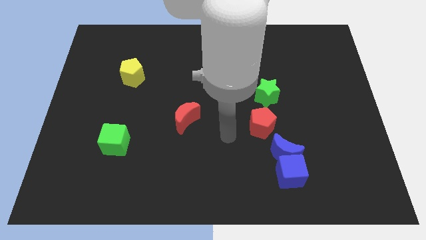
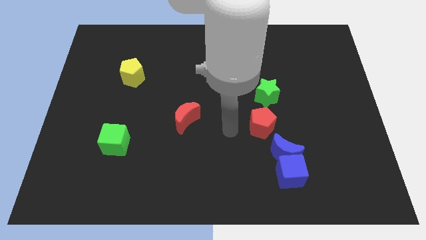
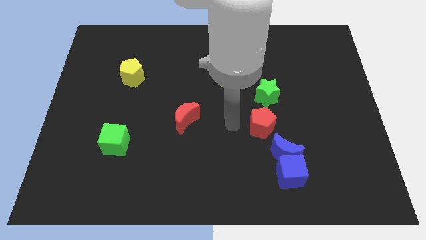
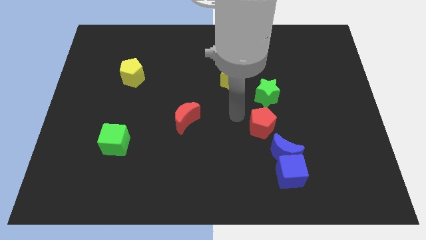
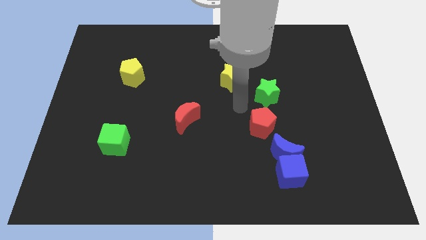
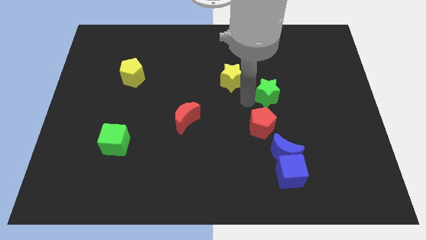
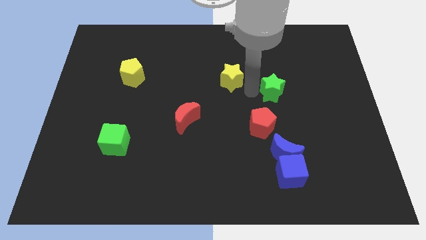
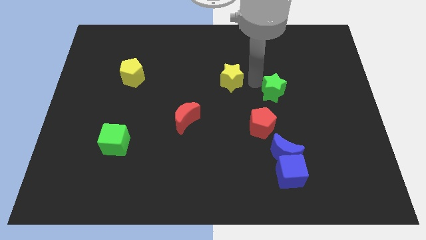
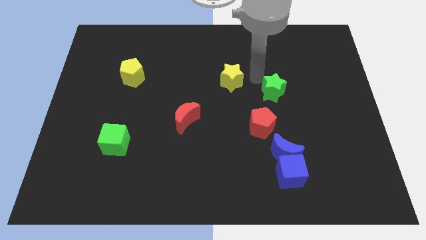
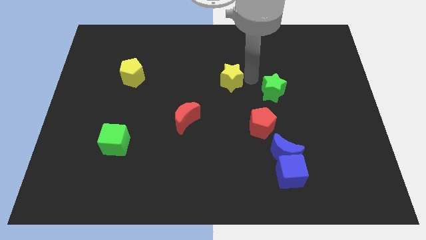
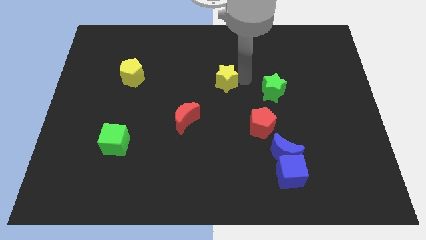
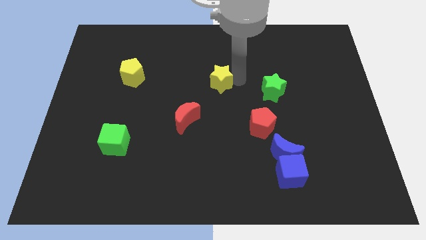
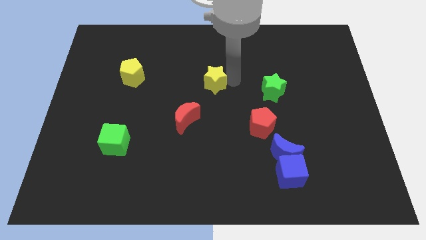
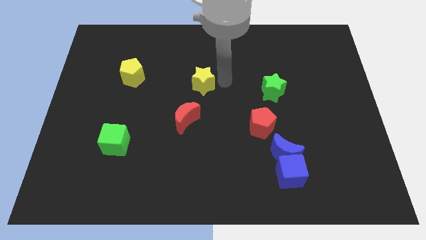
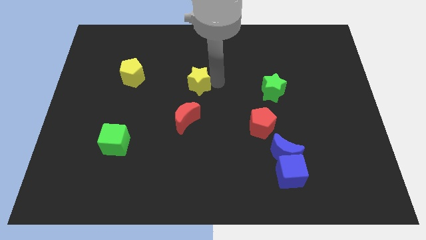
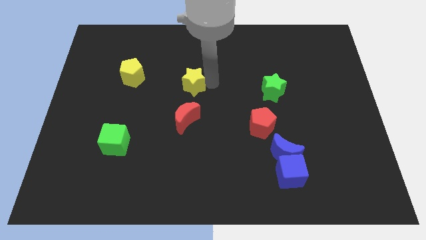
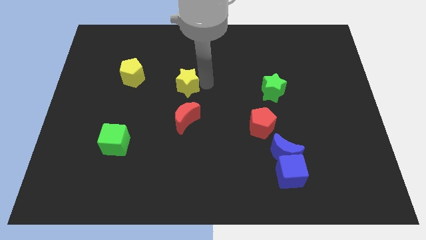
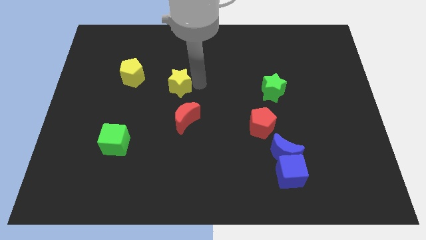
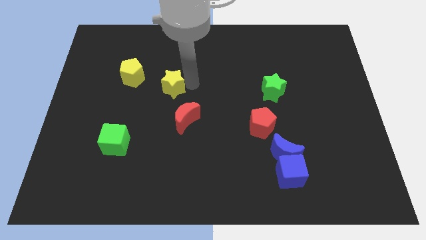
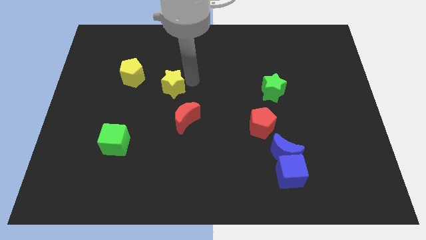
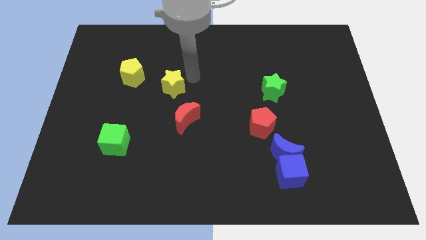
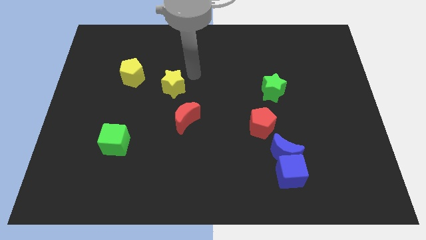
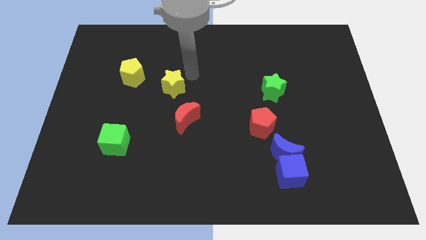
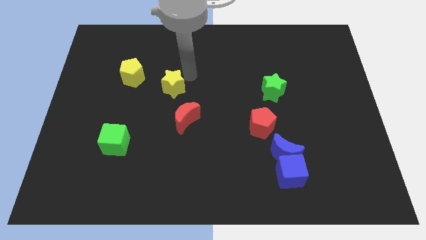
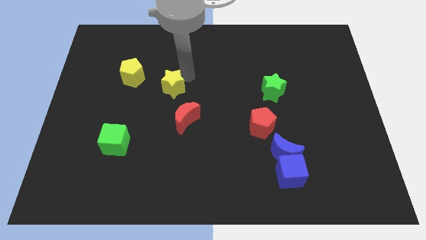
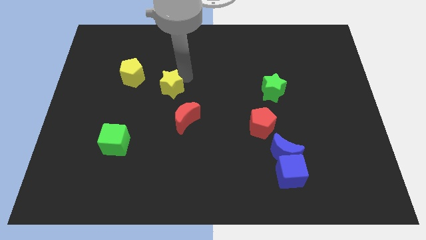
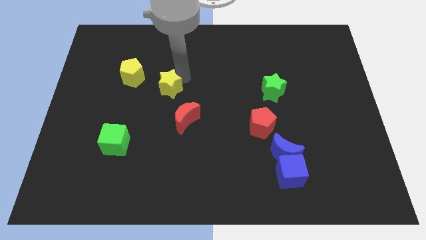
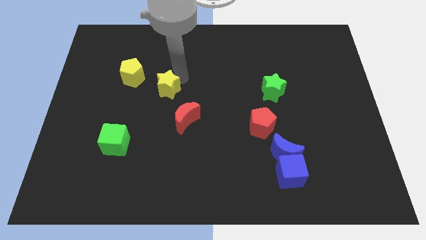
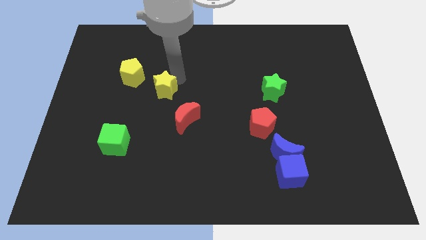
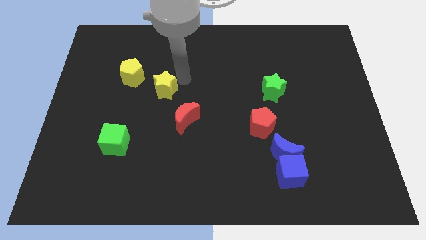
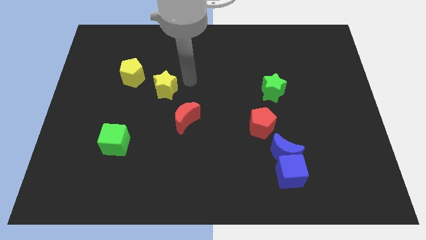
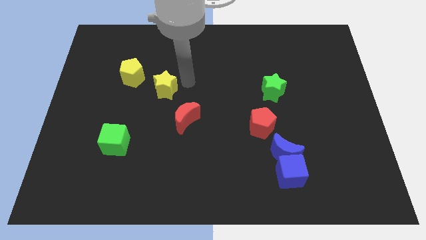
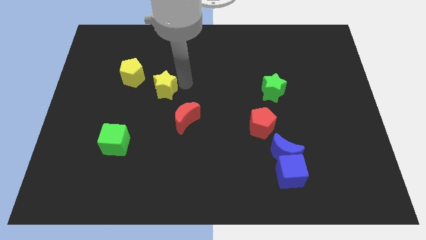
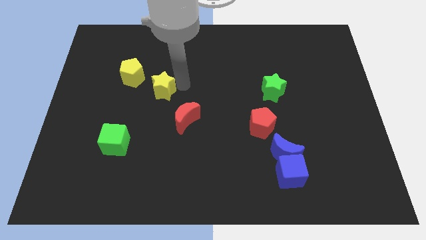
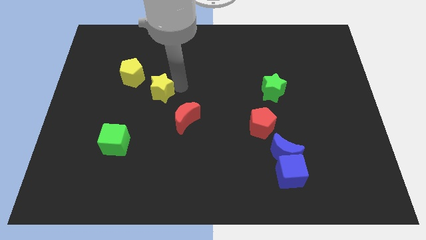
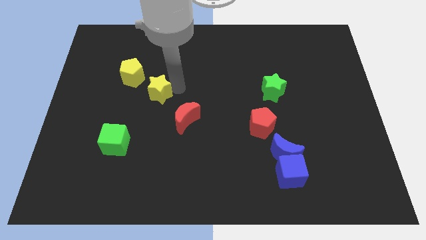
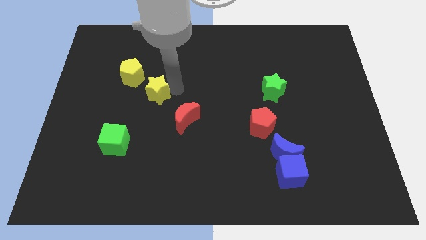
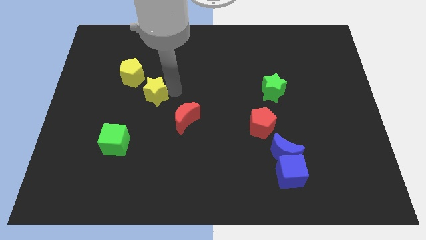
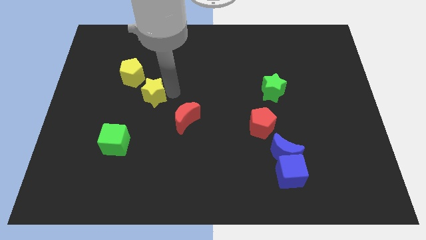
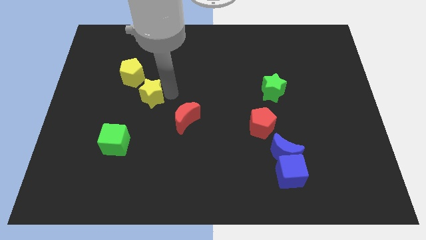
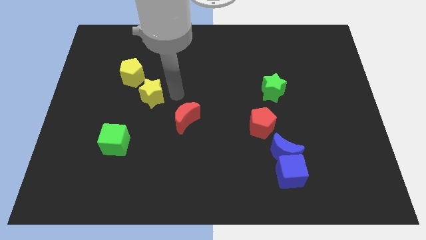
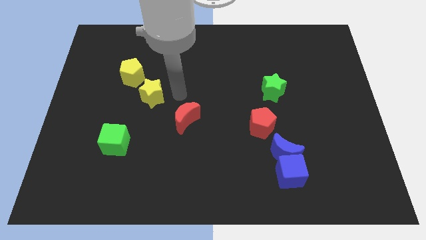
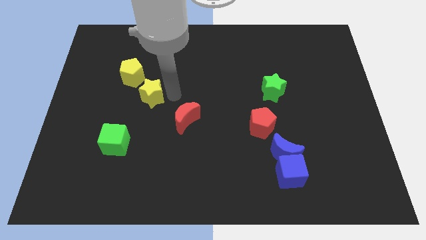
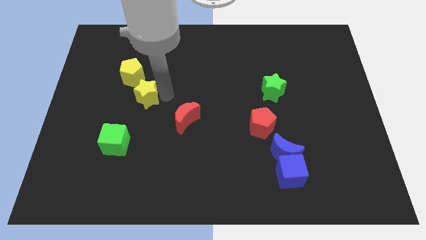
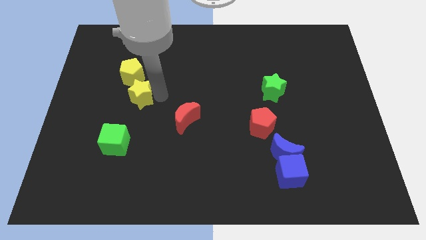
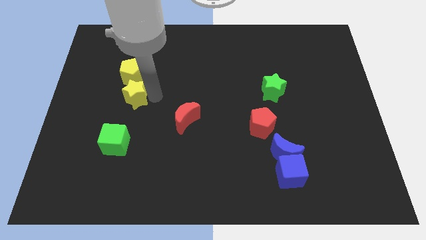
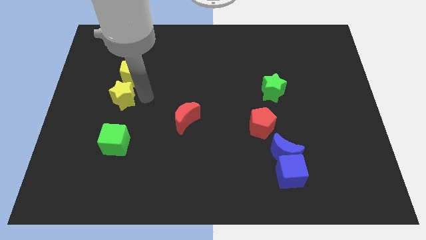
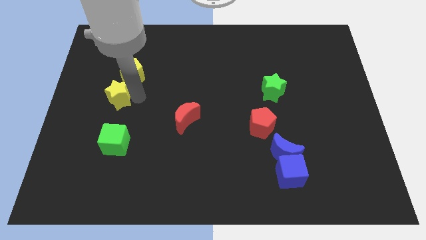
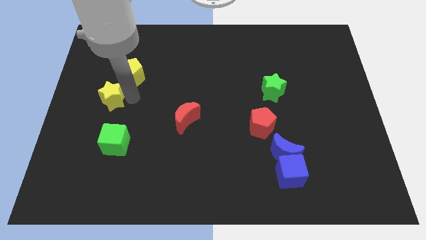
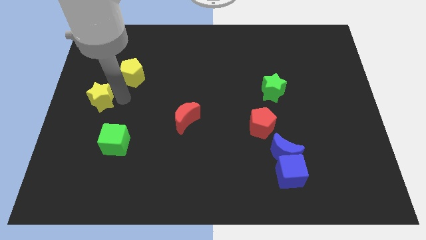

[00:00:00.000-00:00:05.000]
slide the yellow star to the left side

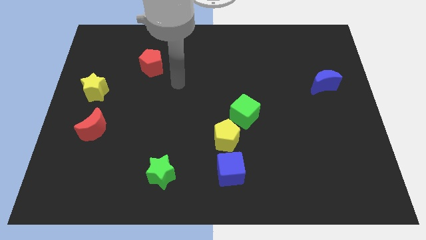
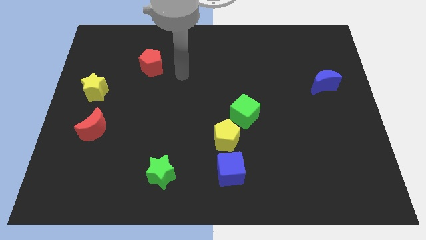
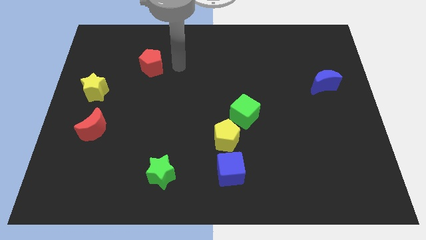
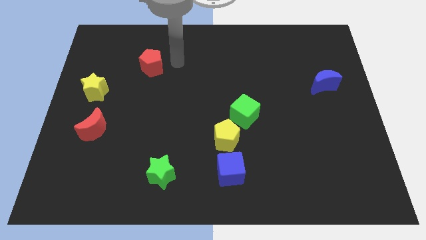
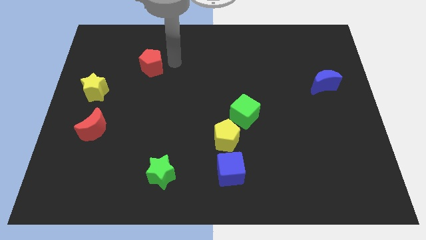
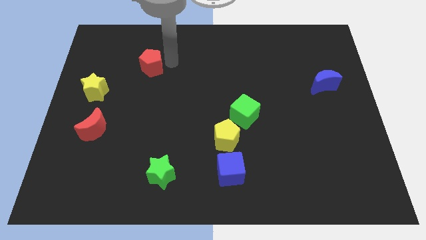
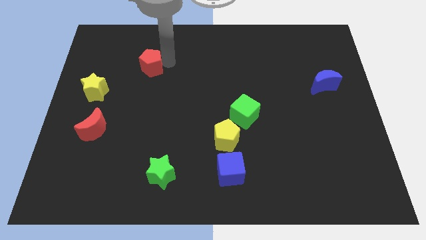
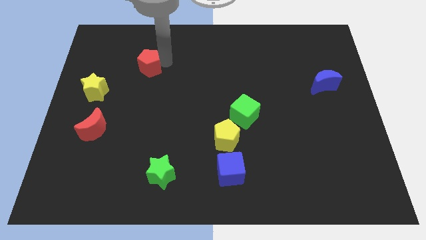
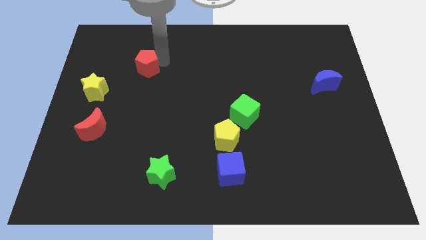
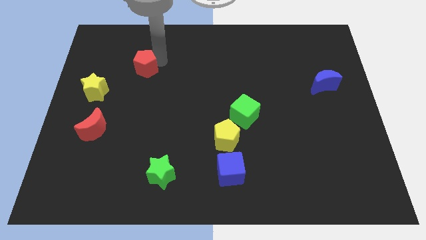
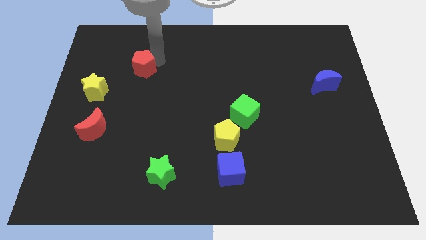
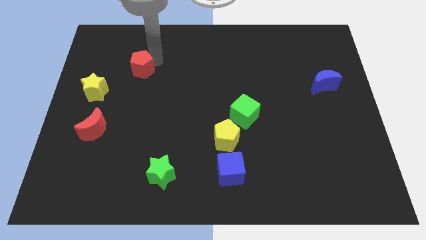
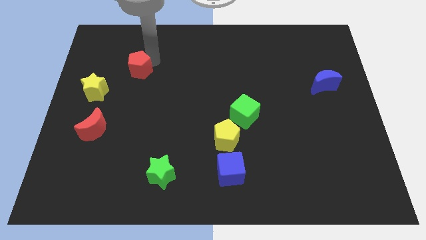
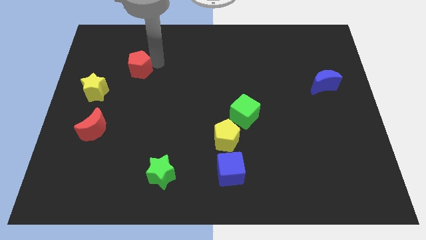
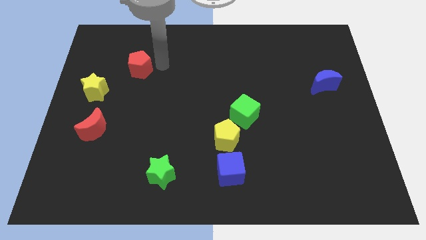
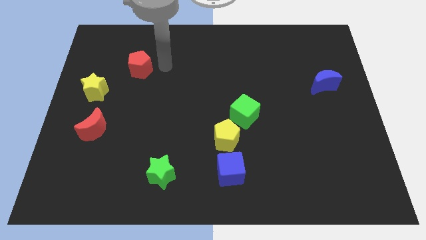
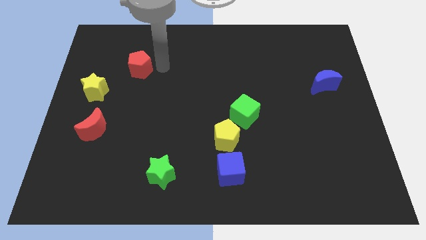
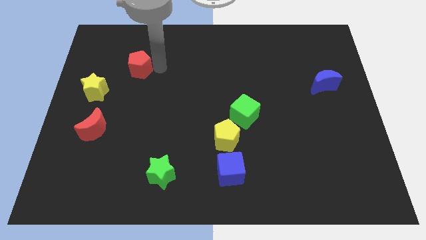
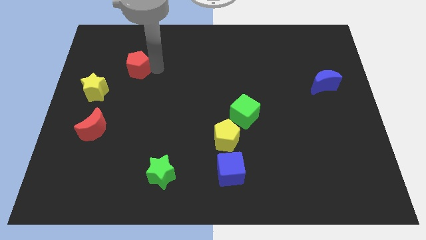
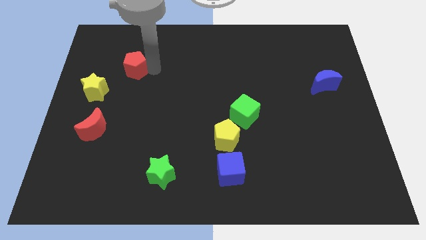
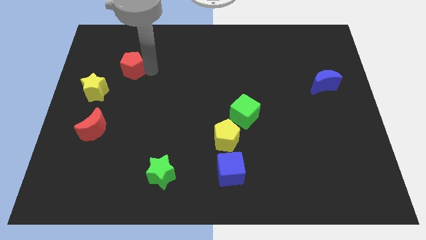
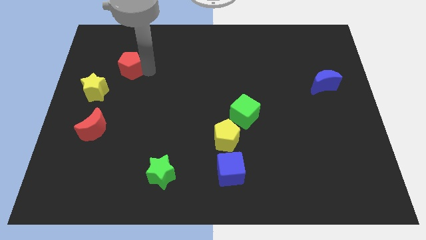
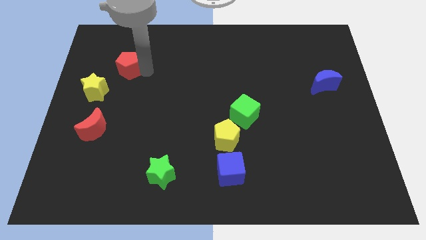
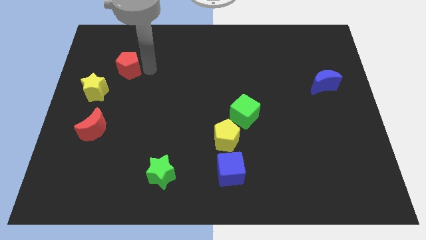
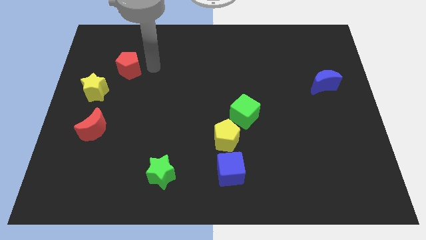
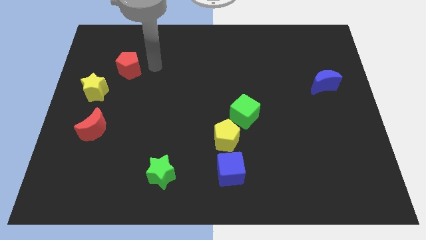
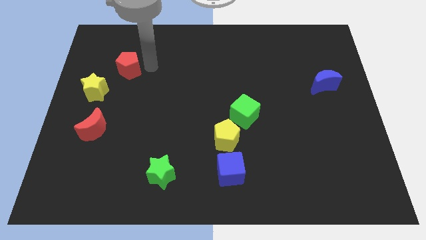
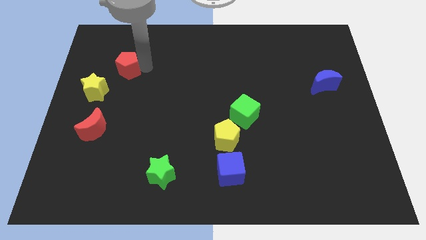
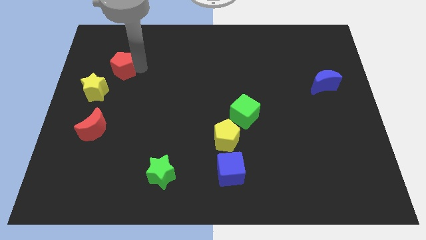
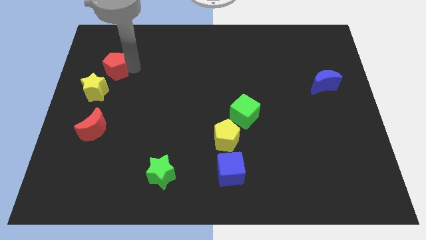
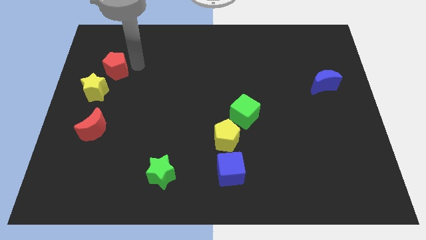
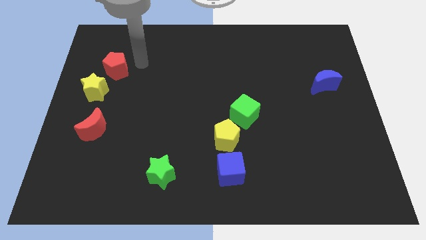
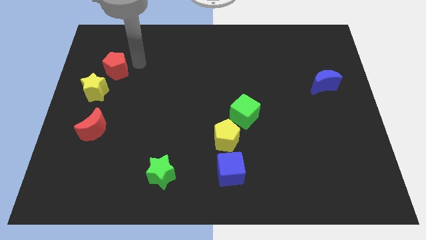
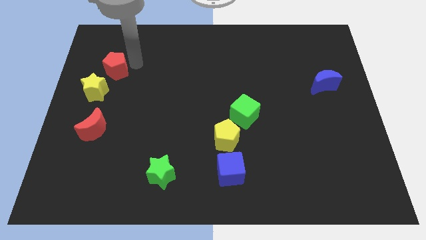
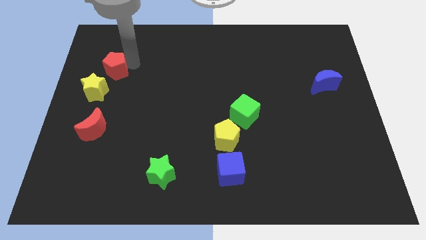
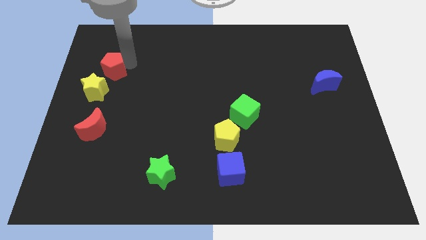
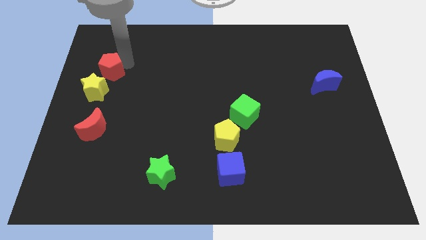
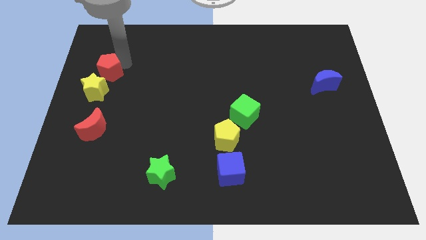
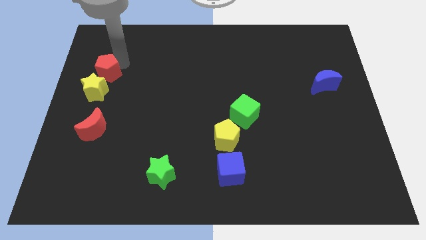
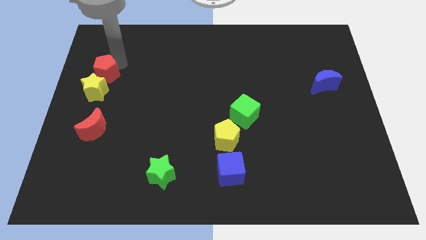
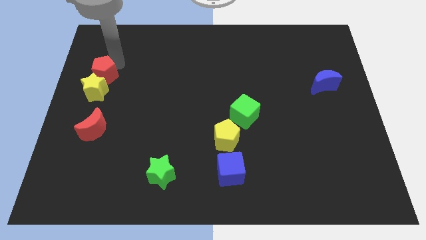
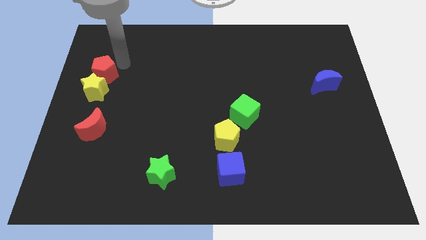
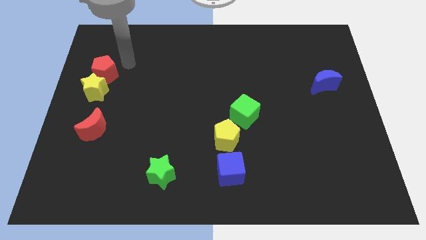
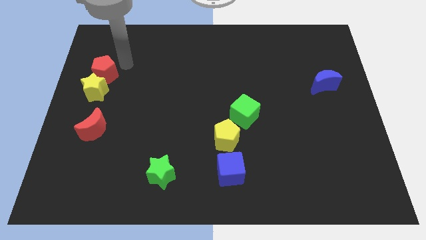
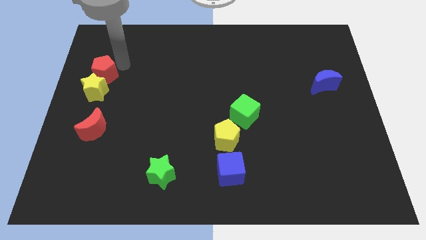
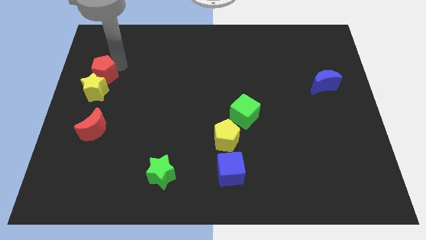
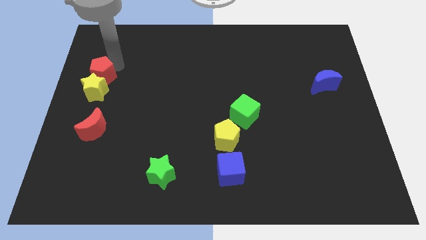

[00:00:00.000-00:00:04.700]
put the red pentagon to the center left
